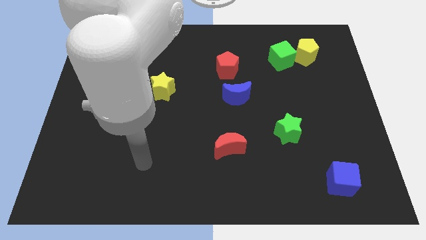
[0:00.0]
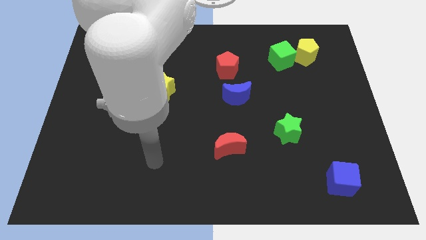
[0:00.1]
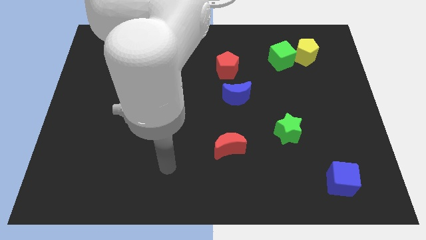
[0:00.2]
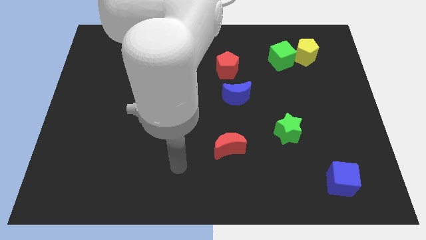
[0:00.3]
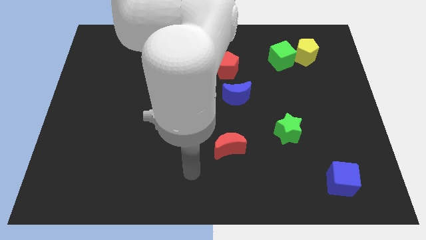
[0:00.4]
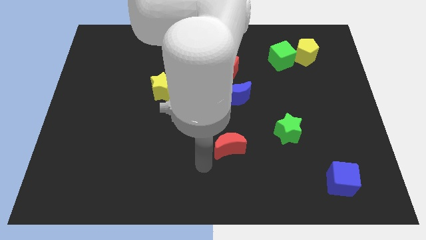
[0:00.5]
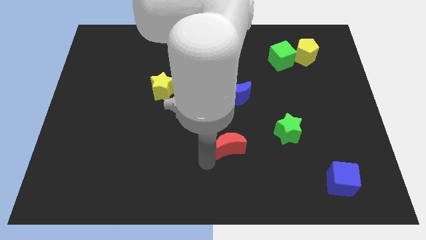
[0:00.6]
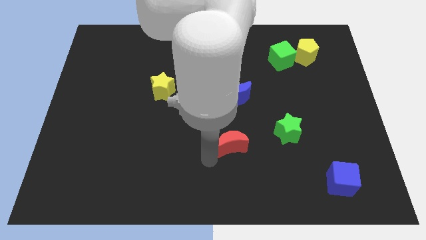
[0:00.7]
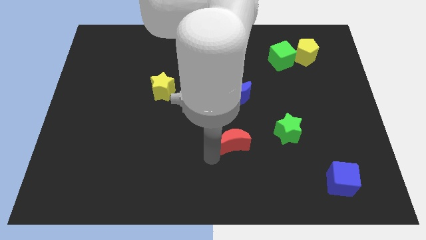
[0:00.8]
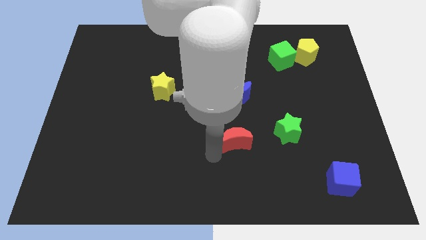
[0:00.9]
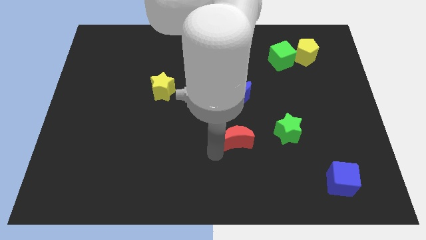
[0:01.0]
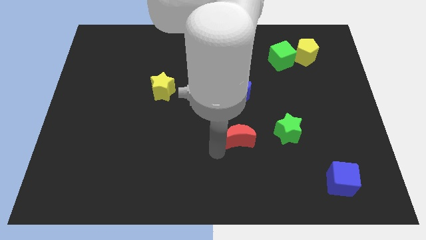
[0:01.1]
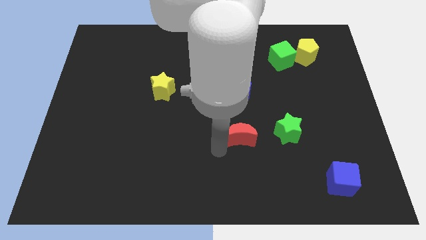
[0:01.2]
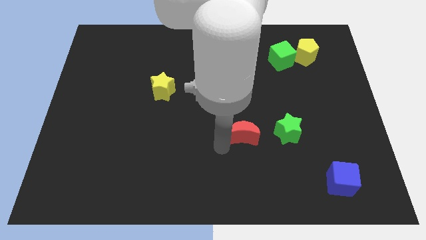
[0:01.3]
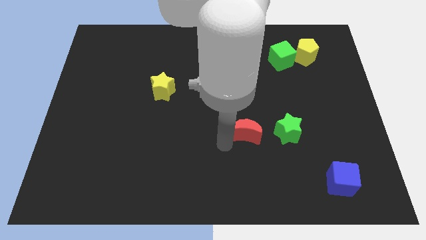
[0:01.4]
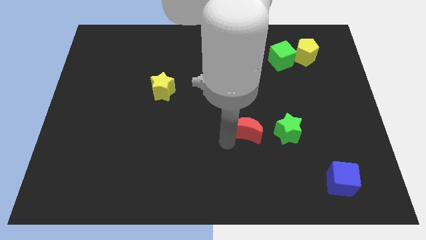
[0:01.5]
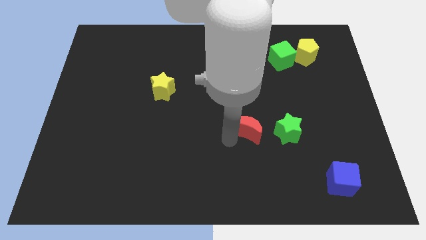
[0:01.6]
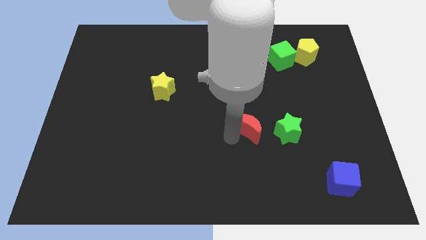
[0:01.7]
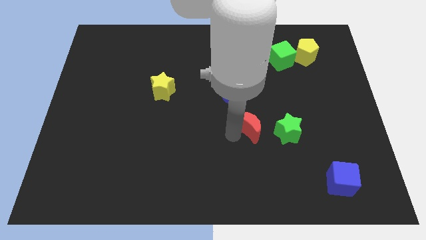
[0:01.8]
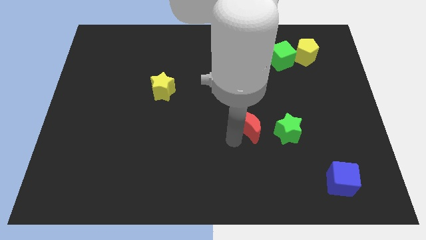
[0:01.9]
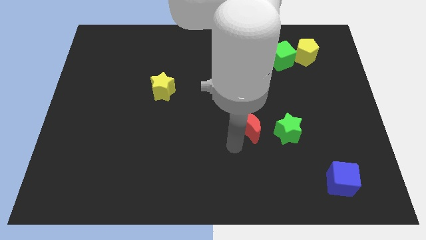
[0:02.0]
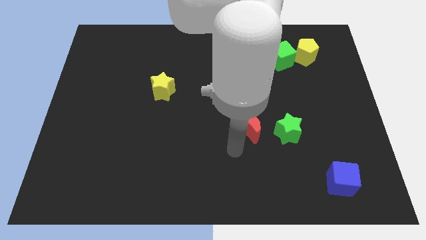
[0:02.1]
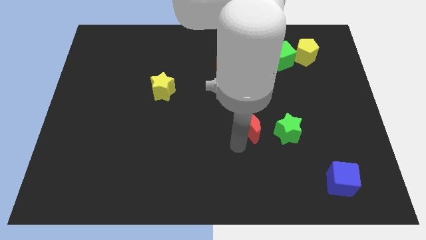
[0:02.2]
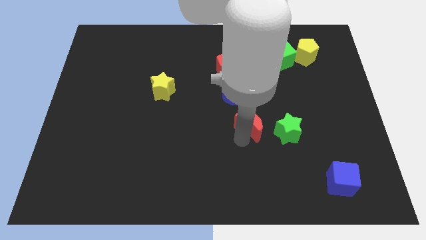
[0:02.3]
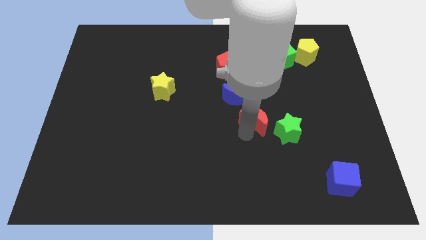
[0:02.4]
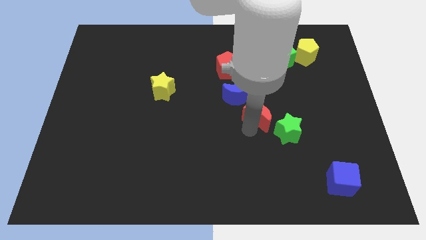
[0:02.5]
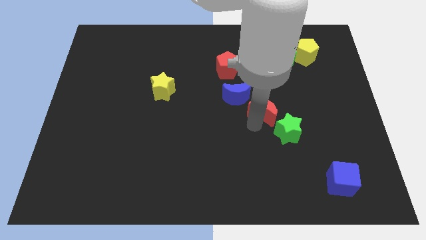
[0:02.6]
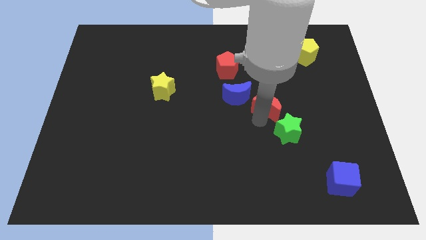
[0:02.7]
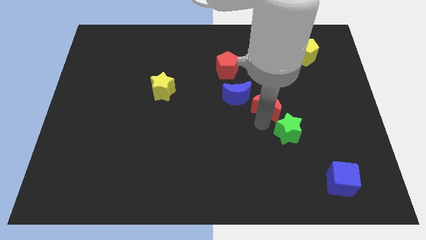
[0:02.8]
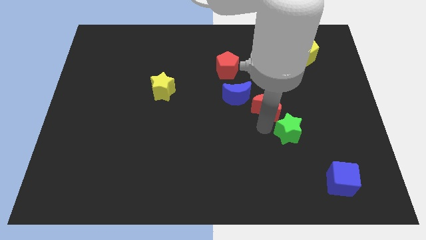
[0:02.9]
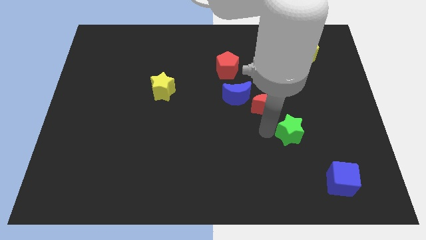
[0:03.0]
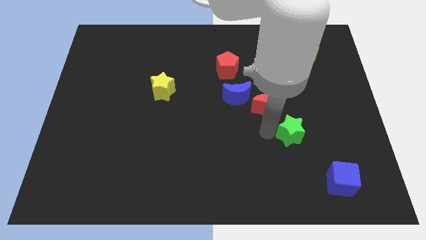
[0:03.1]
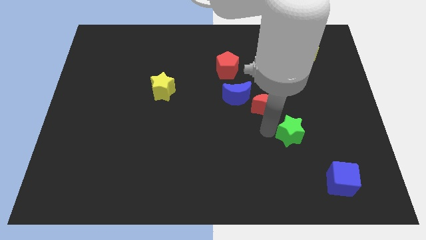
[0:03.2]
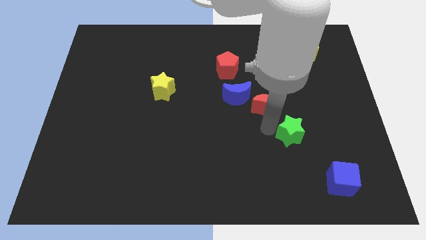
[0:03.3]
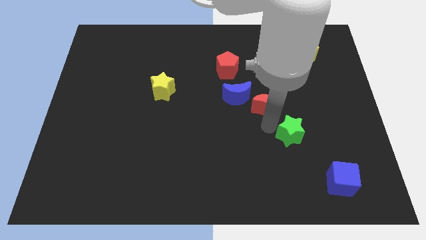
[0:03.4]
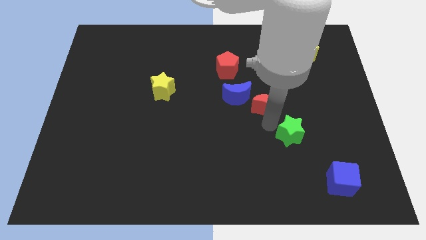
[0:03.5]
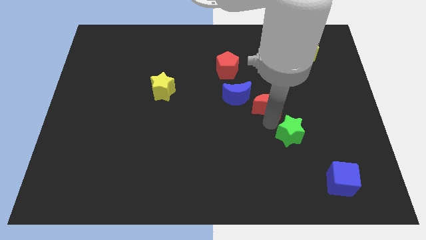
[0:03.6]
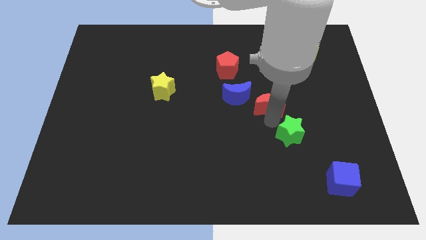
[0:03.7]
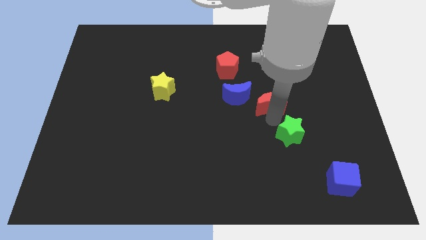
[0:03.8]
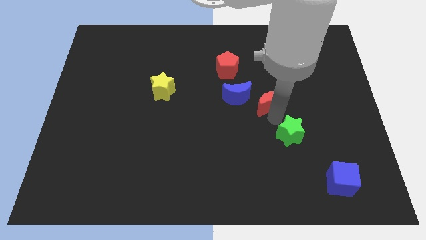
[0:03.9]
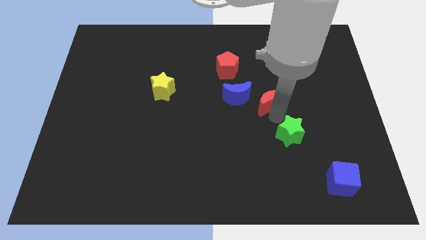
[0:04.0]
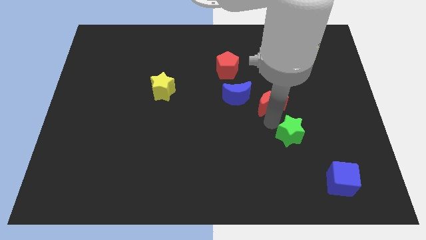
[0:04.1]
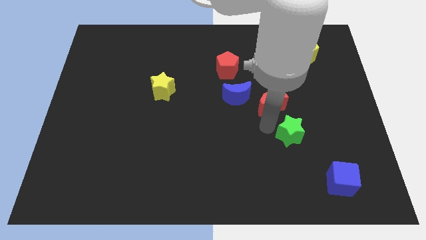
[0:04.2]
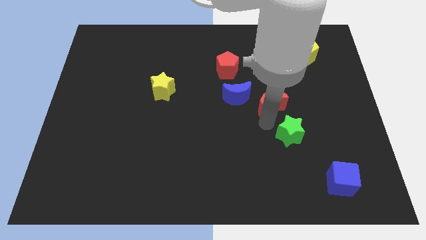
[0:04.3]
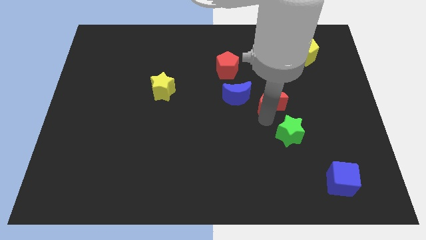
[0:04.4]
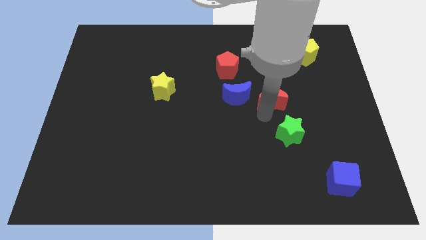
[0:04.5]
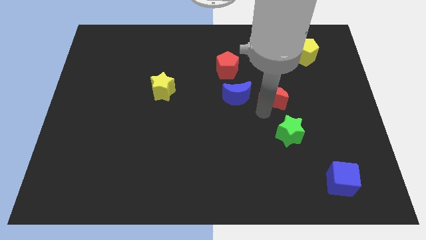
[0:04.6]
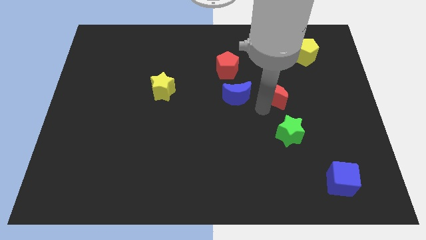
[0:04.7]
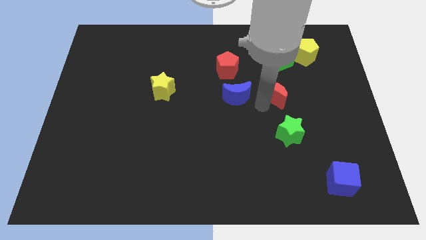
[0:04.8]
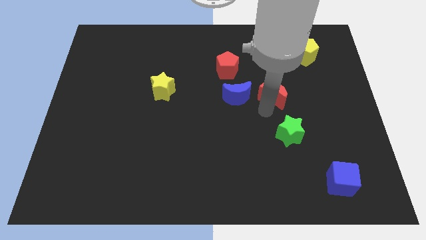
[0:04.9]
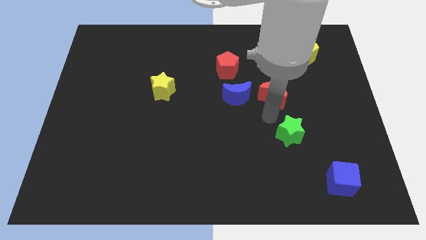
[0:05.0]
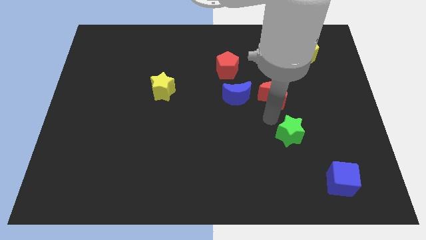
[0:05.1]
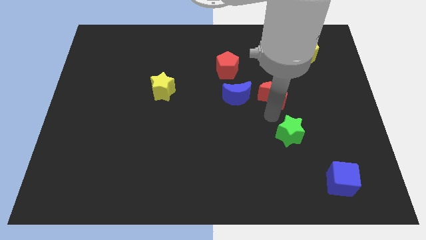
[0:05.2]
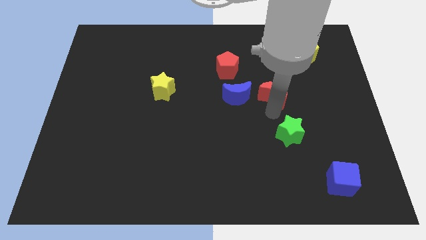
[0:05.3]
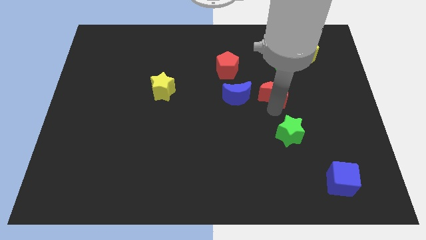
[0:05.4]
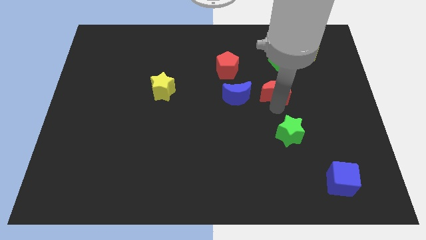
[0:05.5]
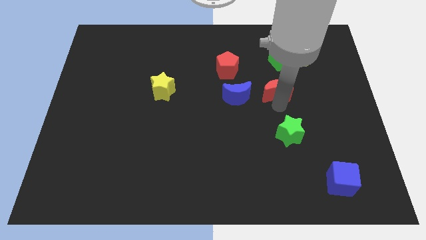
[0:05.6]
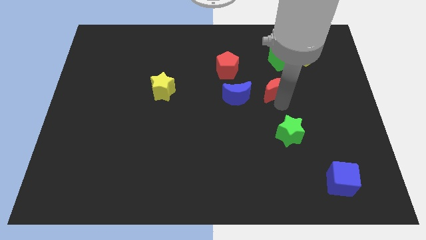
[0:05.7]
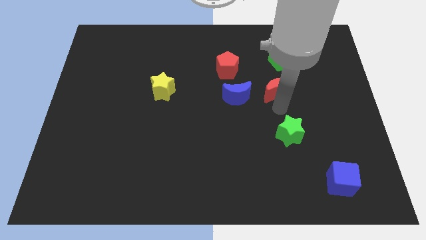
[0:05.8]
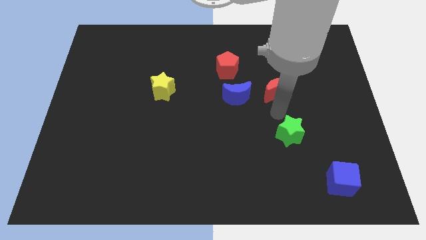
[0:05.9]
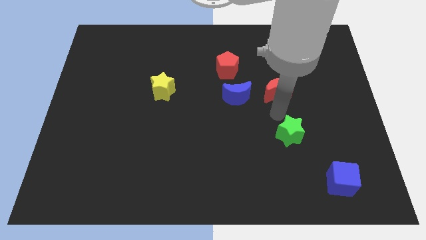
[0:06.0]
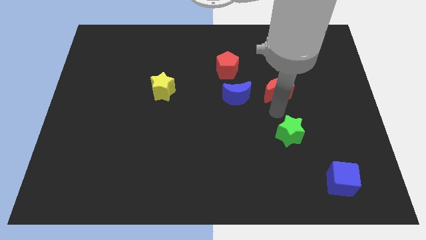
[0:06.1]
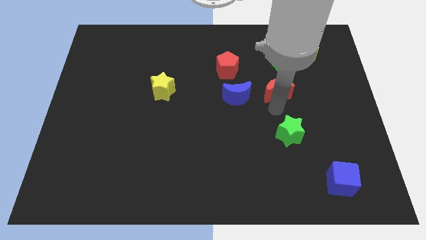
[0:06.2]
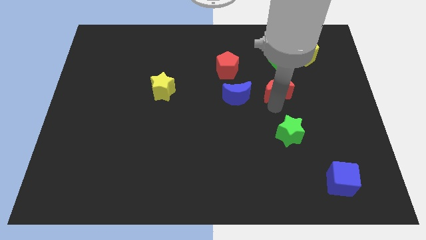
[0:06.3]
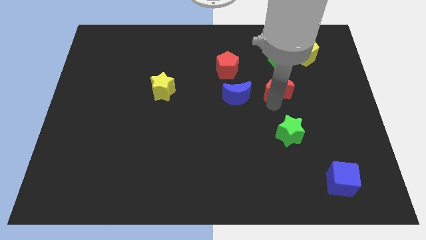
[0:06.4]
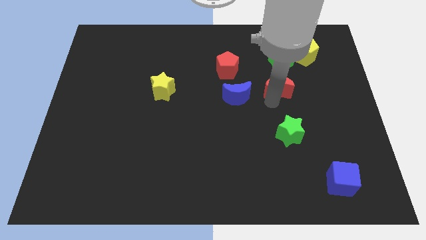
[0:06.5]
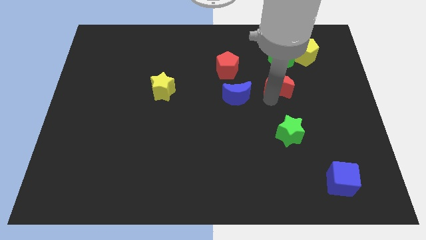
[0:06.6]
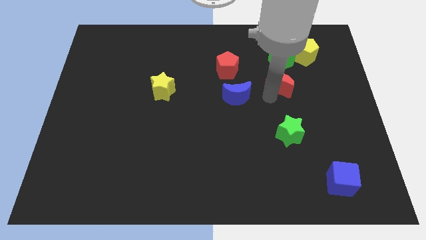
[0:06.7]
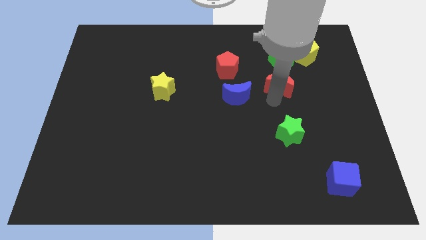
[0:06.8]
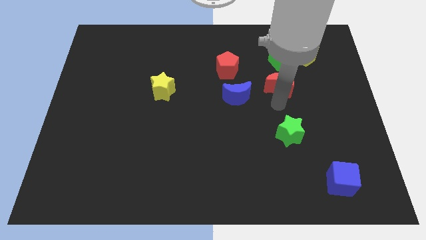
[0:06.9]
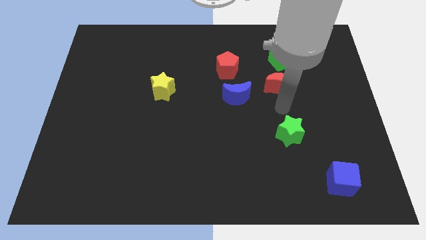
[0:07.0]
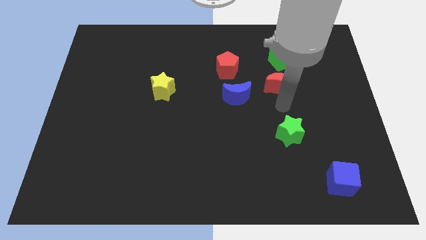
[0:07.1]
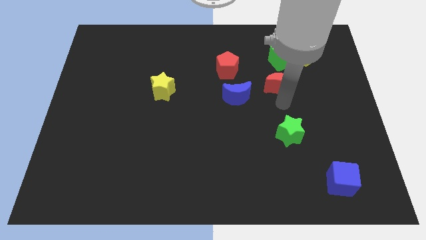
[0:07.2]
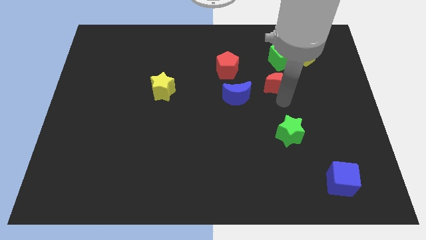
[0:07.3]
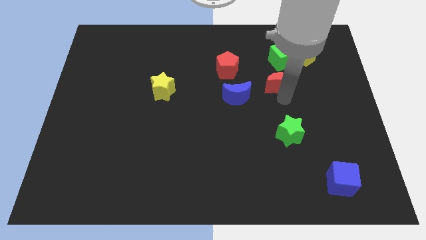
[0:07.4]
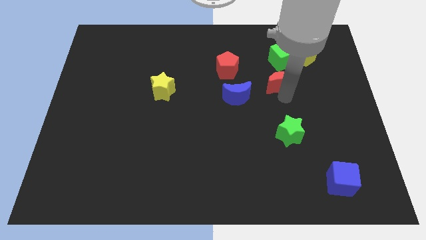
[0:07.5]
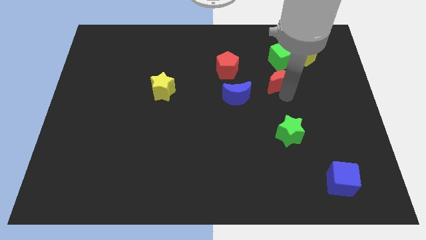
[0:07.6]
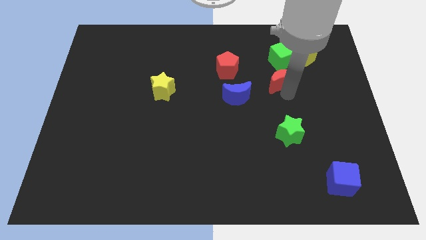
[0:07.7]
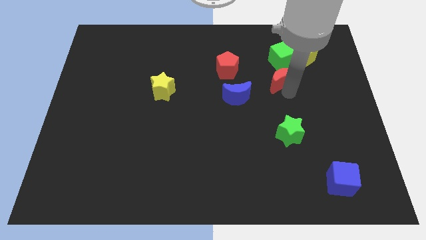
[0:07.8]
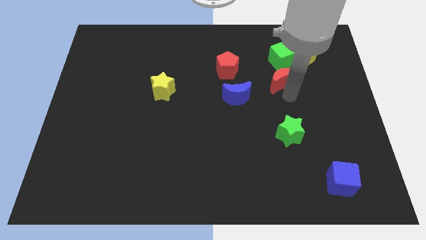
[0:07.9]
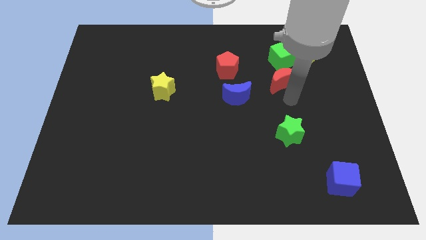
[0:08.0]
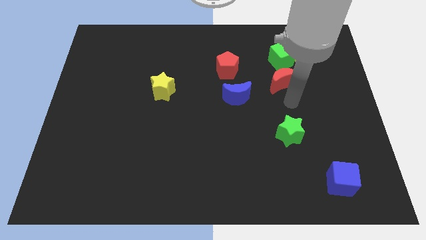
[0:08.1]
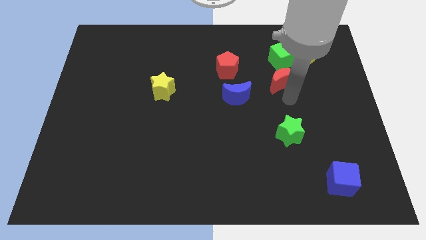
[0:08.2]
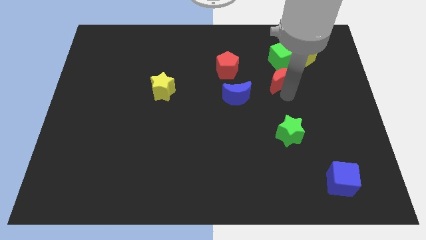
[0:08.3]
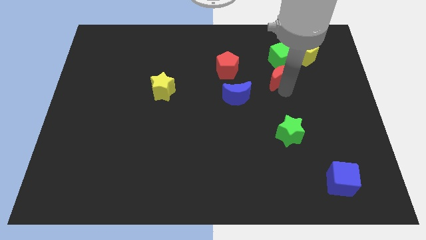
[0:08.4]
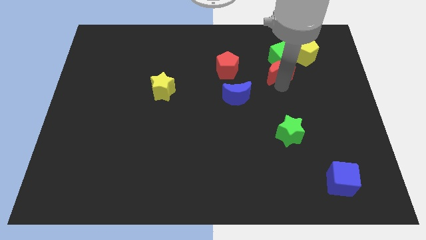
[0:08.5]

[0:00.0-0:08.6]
move the red moon close to the green cube
